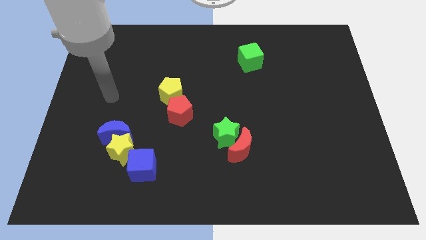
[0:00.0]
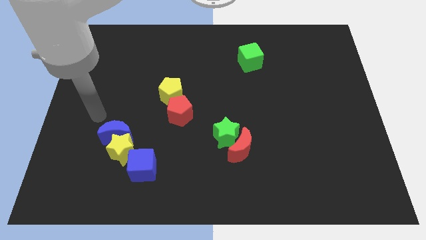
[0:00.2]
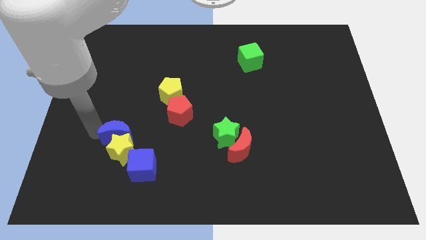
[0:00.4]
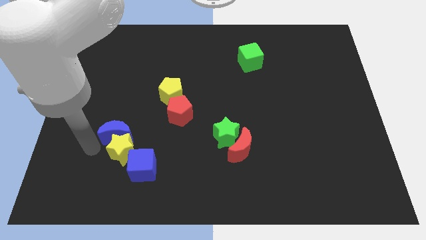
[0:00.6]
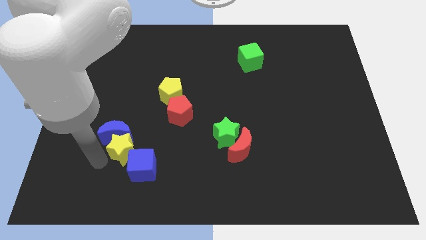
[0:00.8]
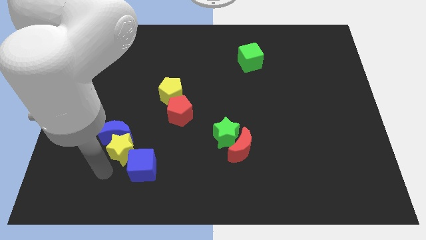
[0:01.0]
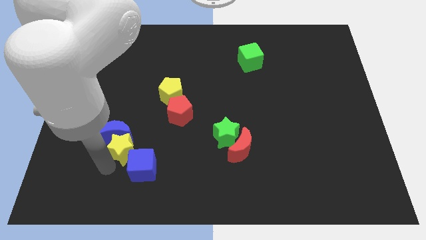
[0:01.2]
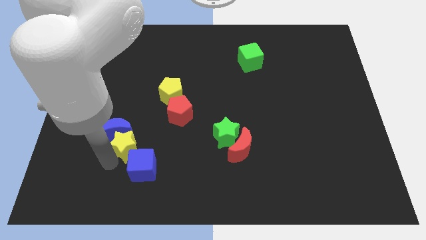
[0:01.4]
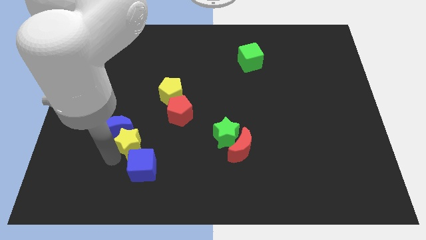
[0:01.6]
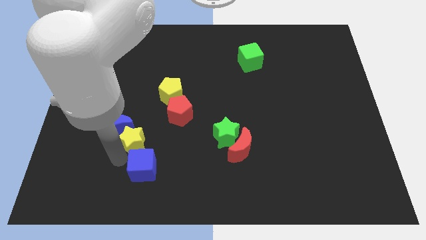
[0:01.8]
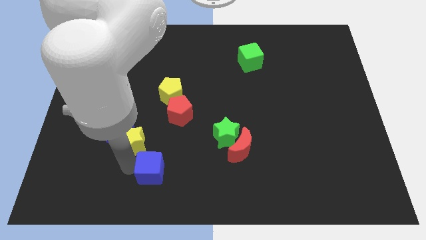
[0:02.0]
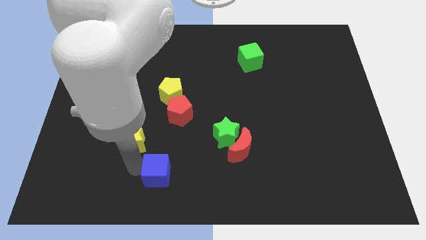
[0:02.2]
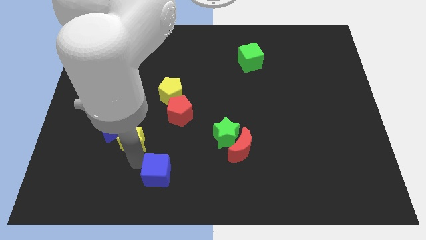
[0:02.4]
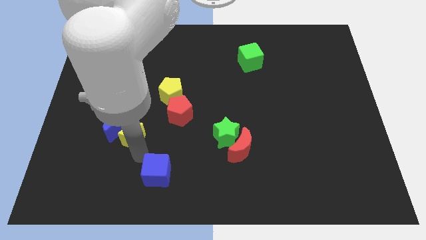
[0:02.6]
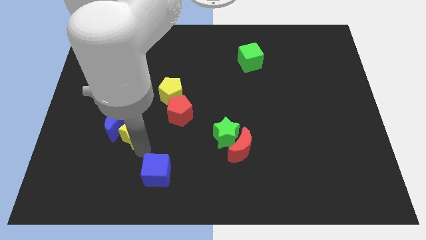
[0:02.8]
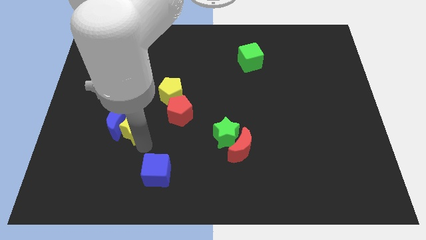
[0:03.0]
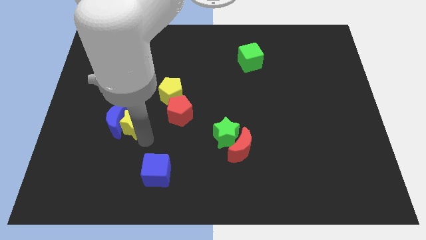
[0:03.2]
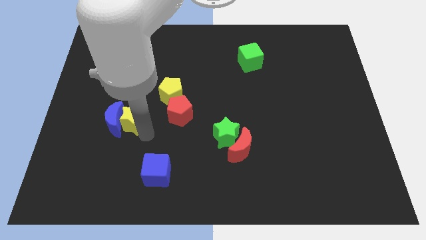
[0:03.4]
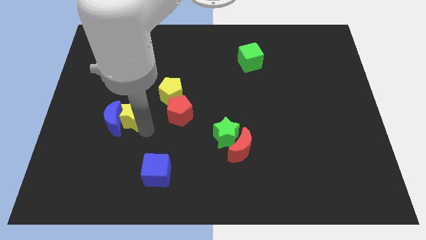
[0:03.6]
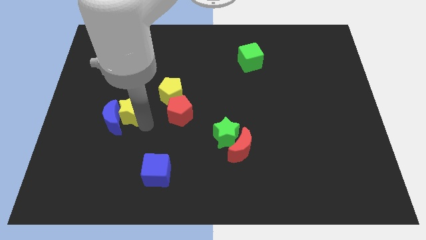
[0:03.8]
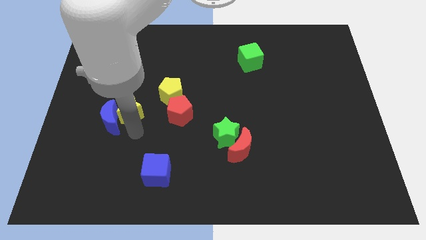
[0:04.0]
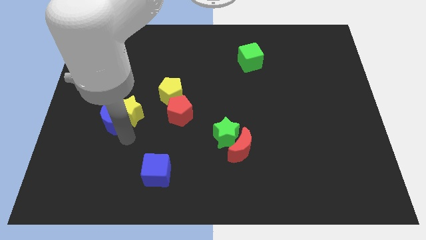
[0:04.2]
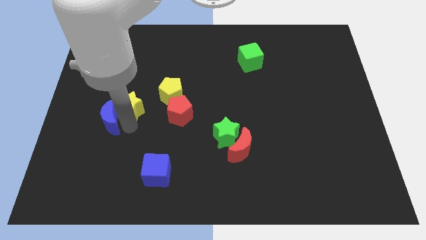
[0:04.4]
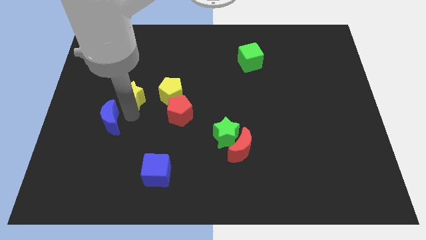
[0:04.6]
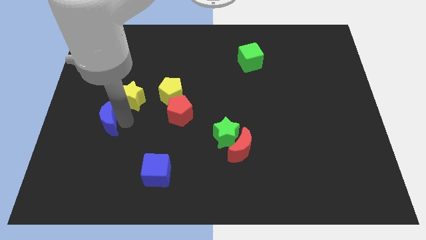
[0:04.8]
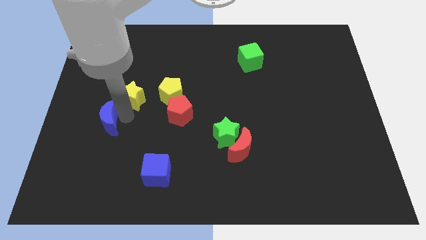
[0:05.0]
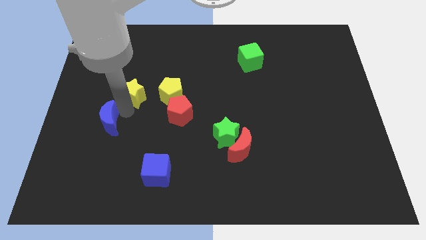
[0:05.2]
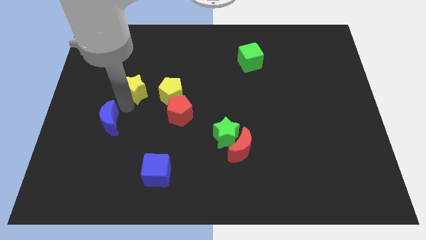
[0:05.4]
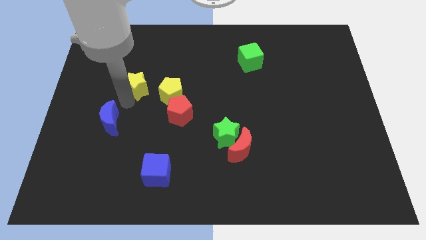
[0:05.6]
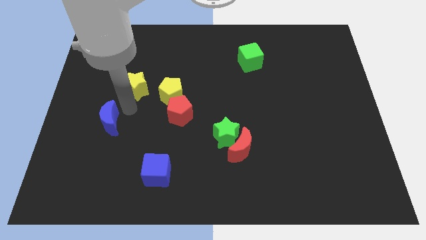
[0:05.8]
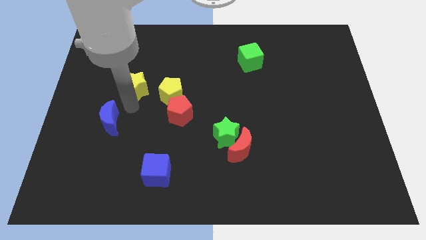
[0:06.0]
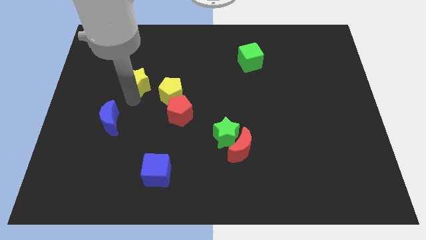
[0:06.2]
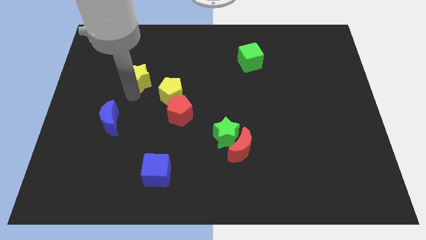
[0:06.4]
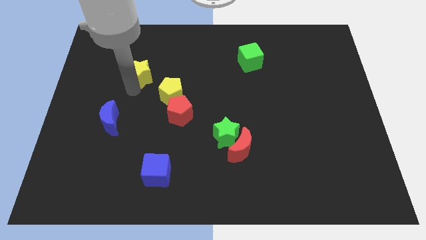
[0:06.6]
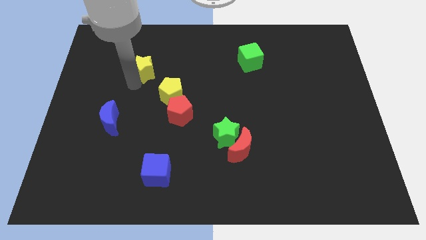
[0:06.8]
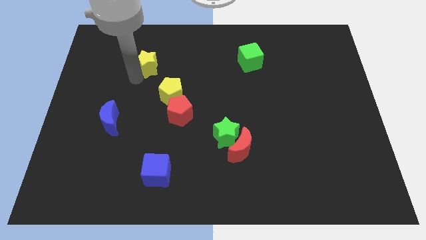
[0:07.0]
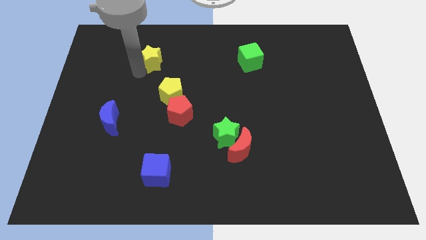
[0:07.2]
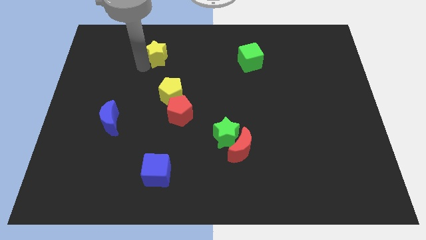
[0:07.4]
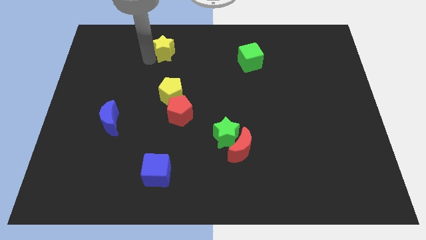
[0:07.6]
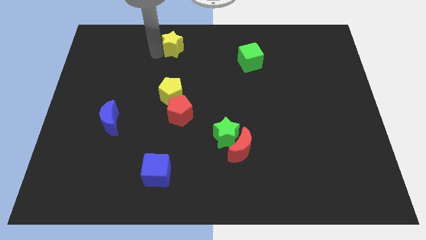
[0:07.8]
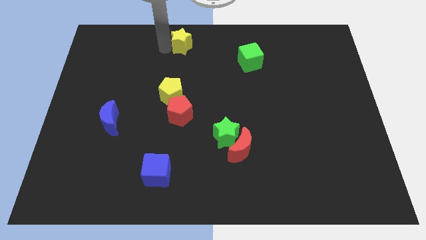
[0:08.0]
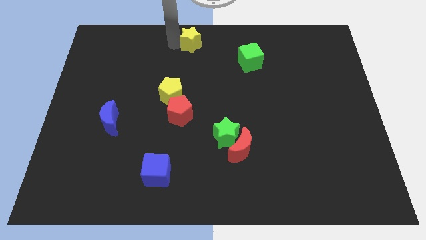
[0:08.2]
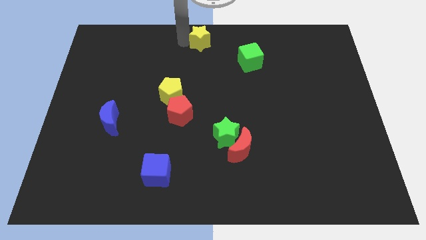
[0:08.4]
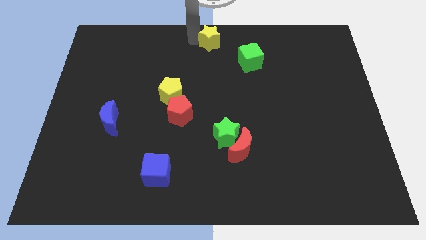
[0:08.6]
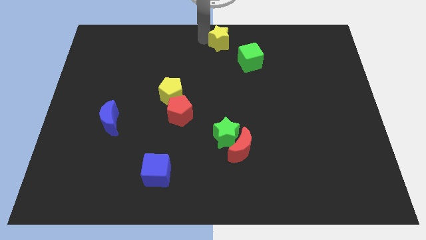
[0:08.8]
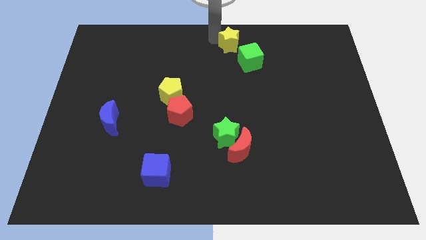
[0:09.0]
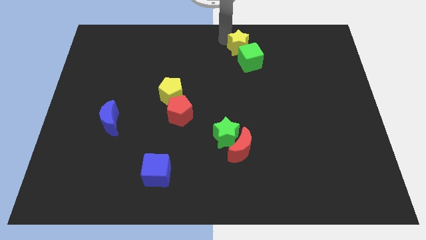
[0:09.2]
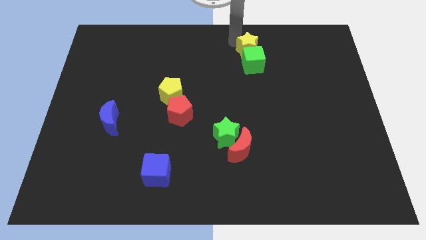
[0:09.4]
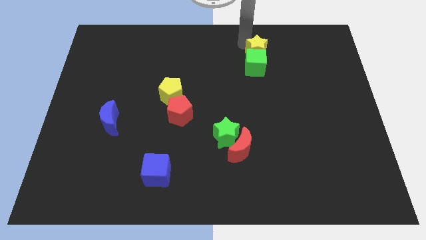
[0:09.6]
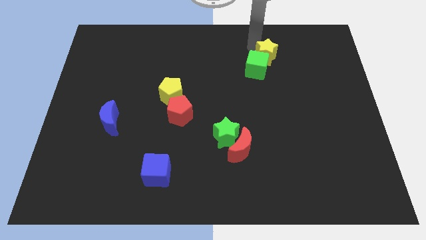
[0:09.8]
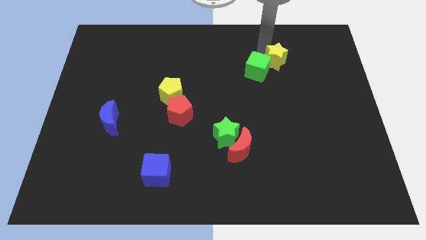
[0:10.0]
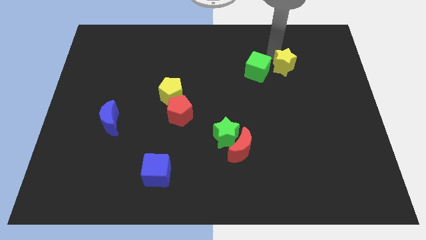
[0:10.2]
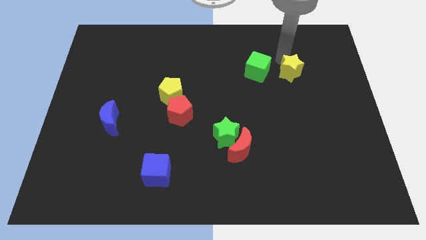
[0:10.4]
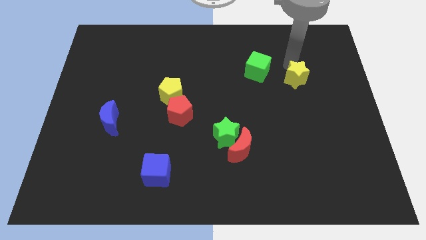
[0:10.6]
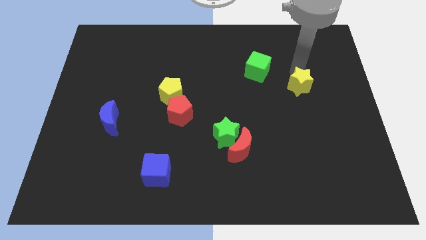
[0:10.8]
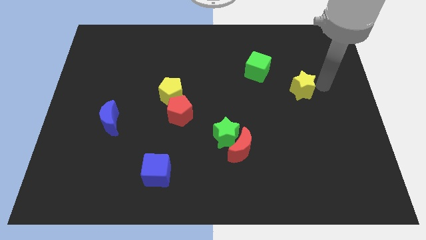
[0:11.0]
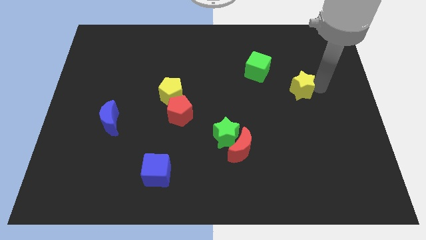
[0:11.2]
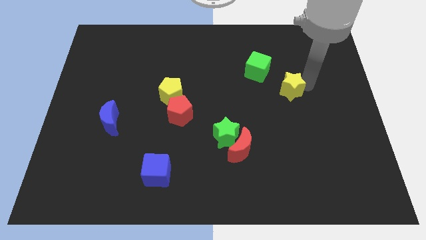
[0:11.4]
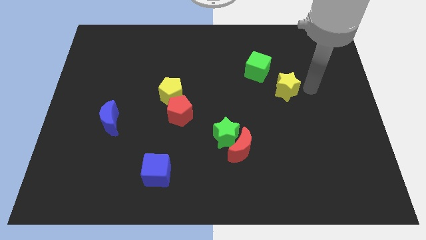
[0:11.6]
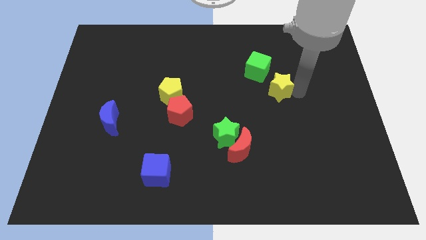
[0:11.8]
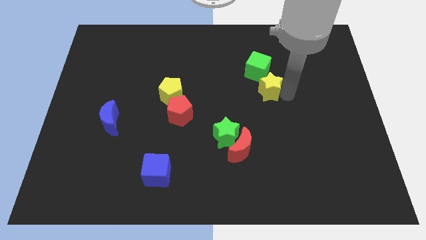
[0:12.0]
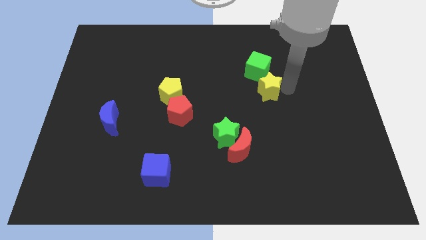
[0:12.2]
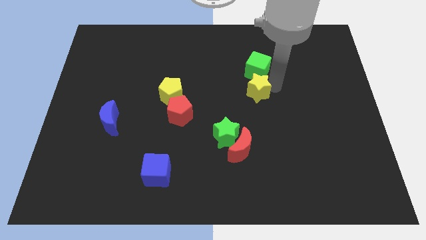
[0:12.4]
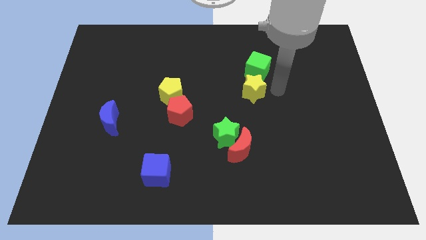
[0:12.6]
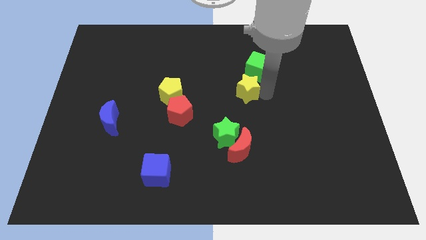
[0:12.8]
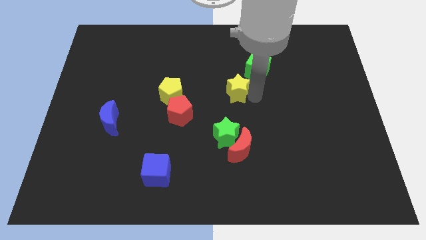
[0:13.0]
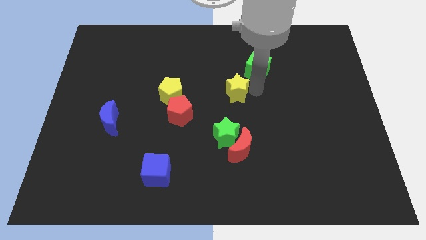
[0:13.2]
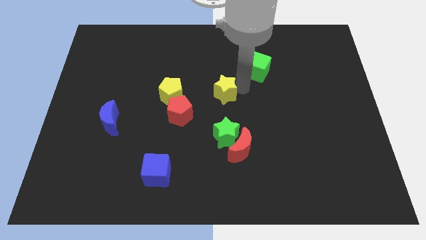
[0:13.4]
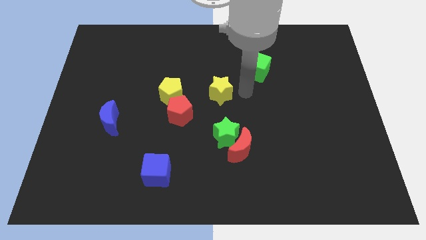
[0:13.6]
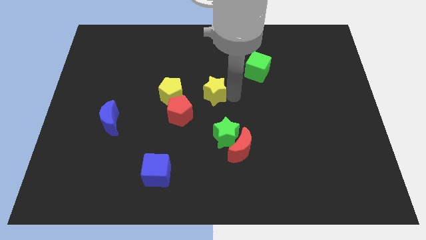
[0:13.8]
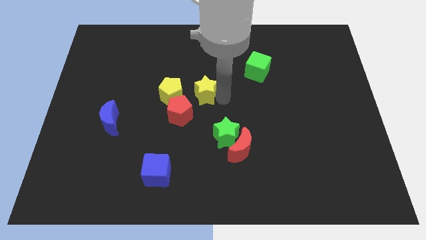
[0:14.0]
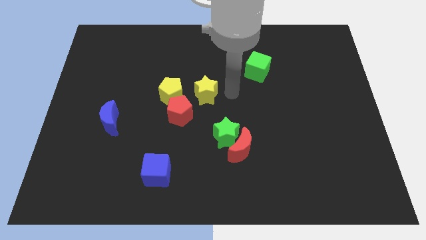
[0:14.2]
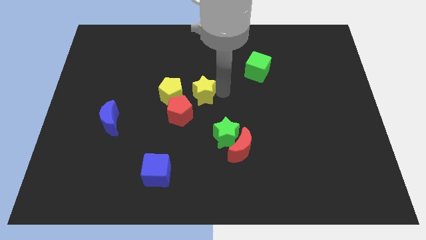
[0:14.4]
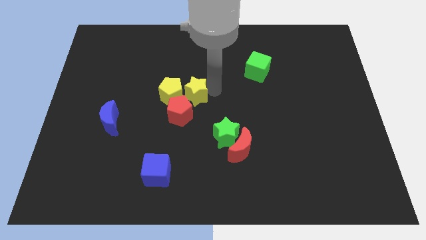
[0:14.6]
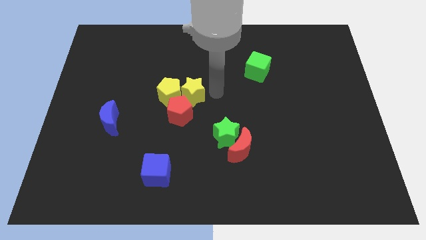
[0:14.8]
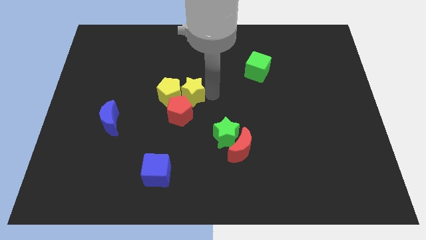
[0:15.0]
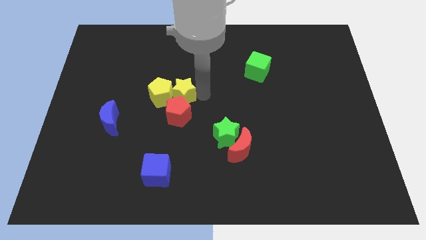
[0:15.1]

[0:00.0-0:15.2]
push the yellow star diagonally up and to the left of the red pentagon
